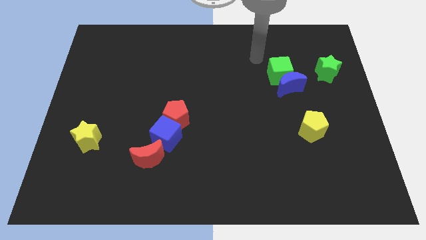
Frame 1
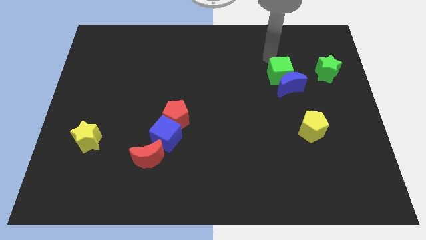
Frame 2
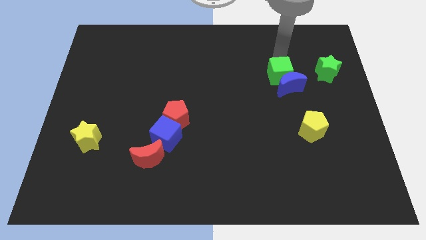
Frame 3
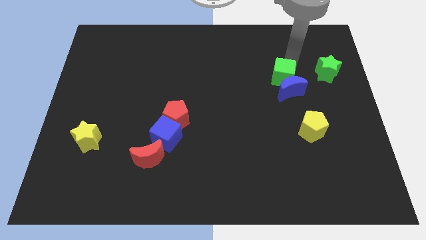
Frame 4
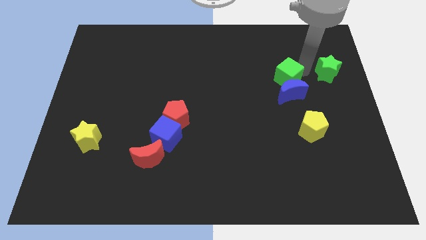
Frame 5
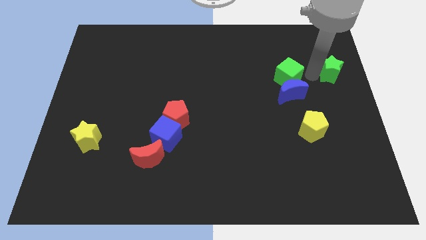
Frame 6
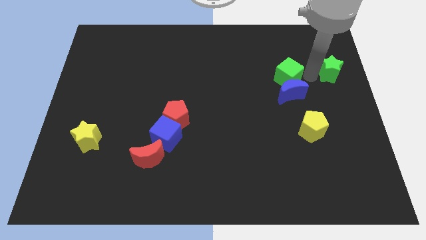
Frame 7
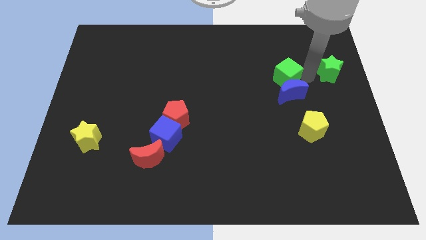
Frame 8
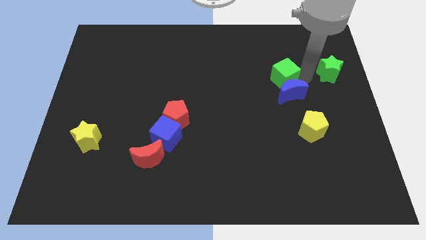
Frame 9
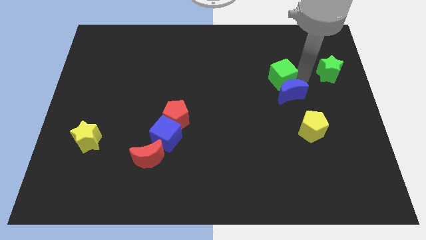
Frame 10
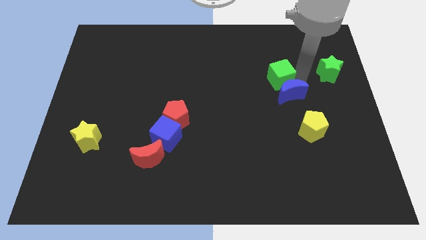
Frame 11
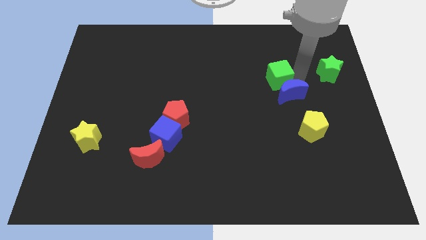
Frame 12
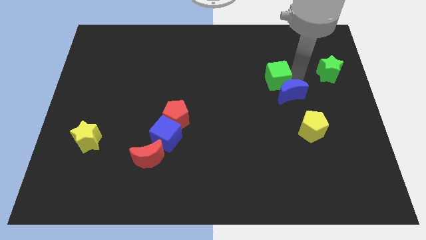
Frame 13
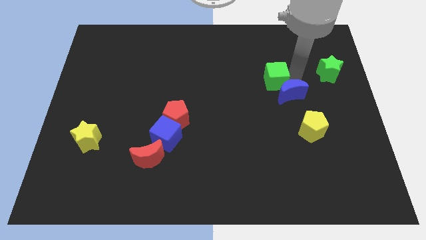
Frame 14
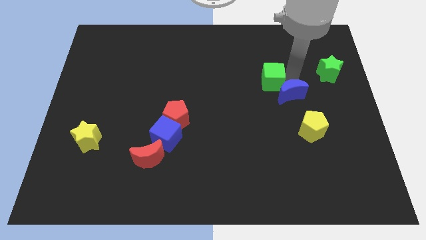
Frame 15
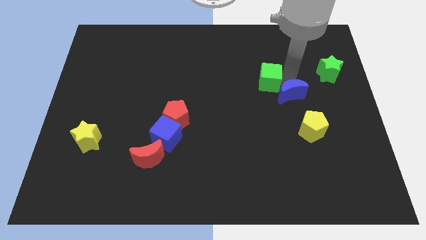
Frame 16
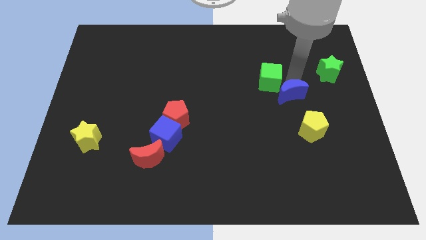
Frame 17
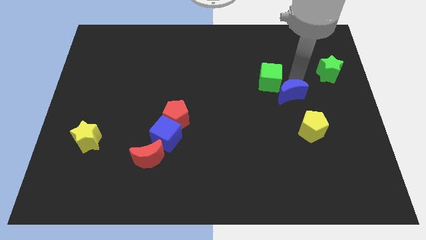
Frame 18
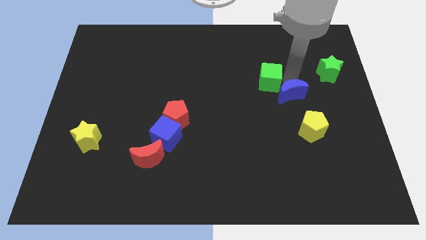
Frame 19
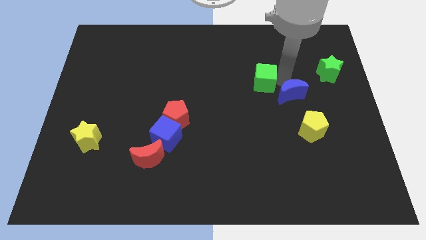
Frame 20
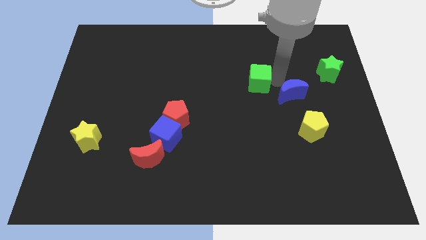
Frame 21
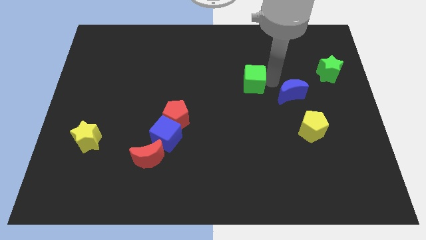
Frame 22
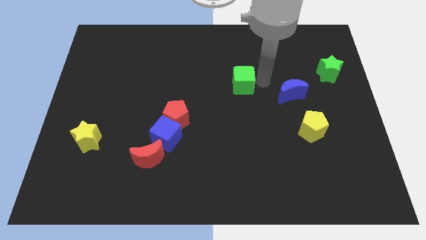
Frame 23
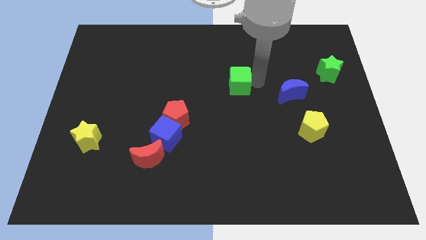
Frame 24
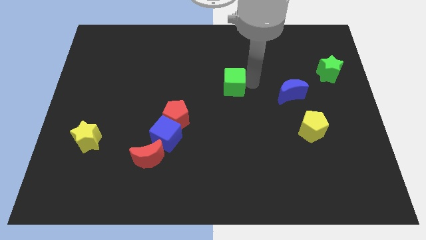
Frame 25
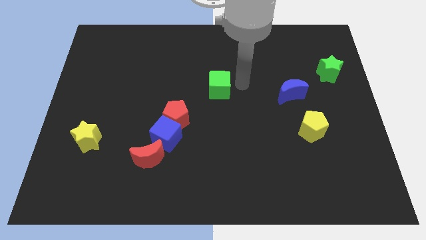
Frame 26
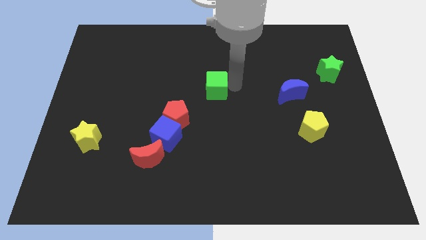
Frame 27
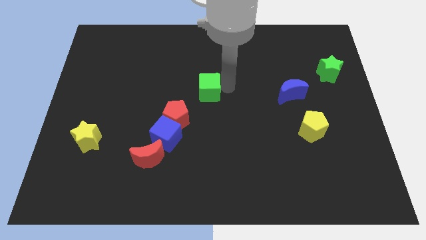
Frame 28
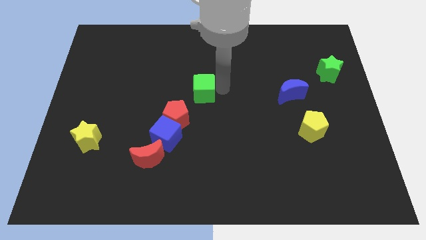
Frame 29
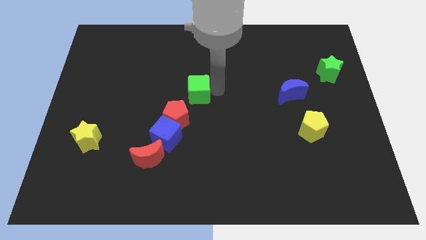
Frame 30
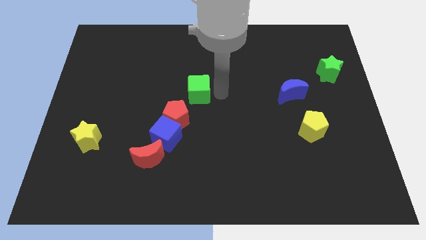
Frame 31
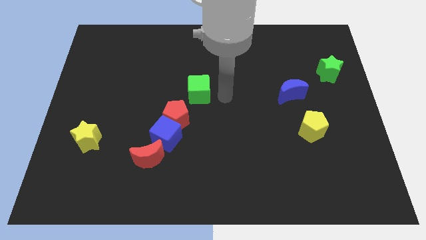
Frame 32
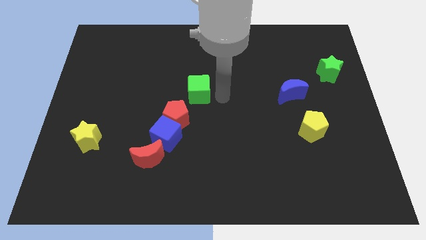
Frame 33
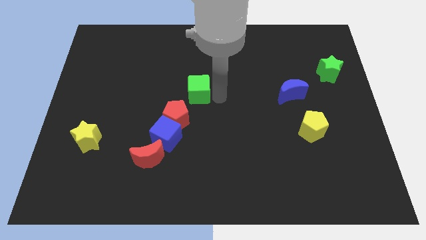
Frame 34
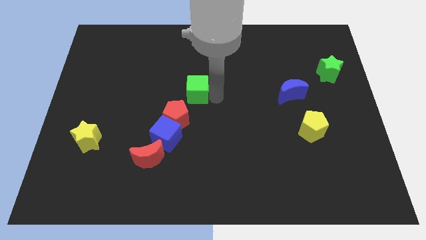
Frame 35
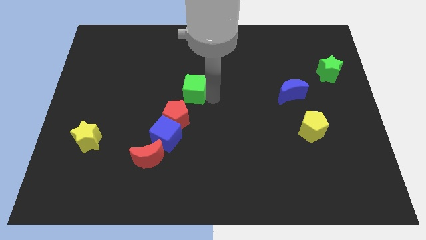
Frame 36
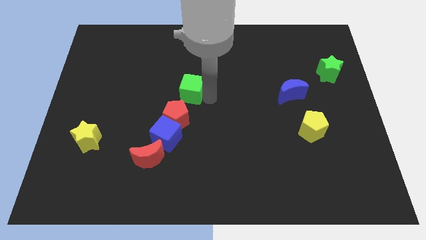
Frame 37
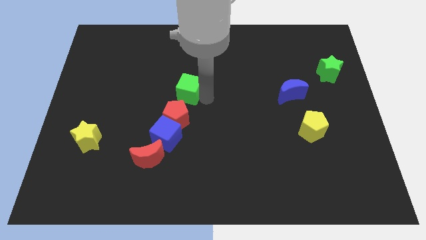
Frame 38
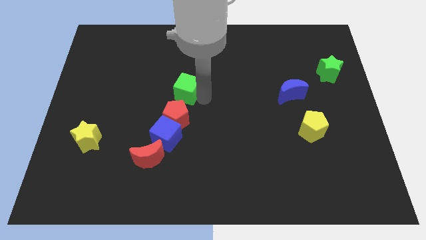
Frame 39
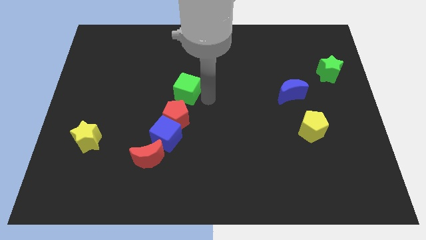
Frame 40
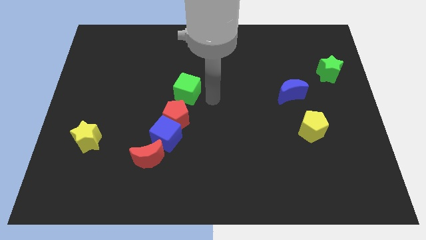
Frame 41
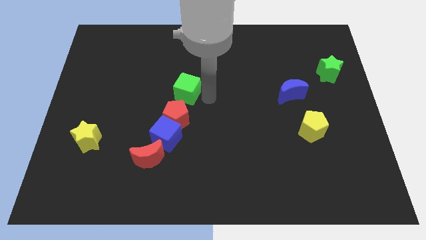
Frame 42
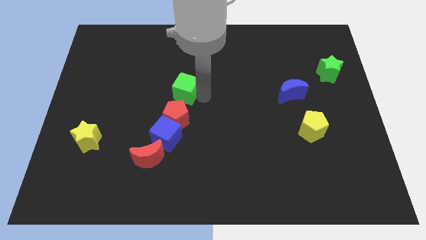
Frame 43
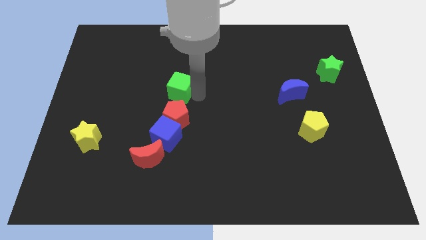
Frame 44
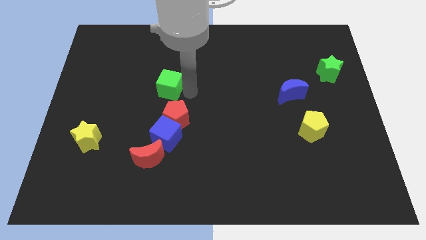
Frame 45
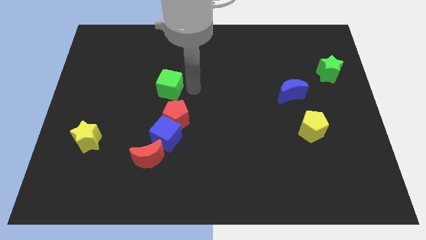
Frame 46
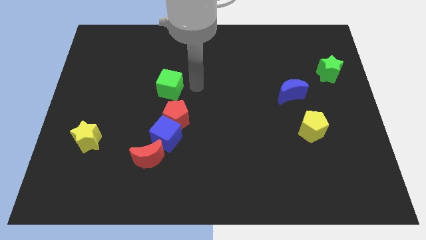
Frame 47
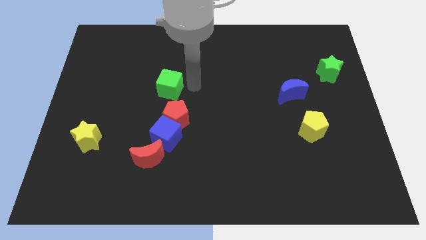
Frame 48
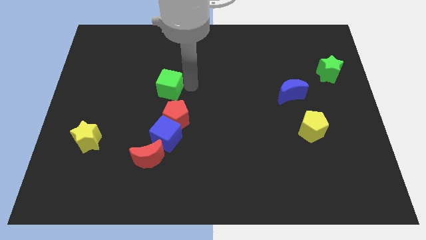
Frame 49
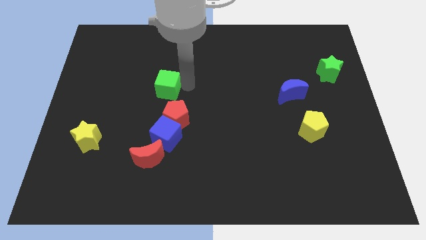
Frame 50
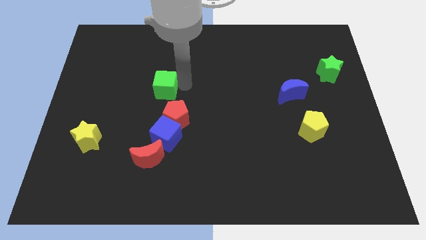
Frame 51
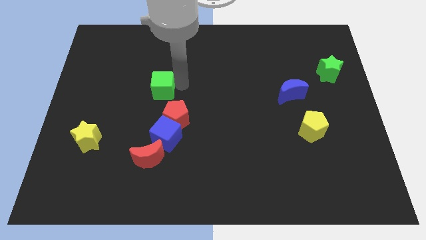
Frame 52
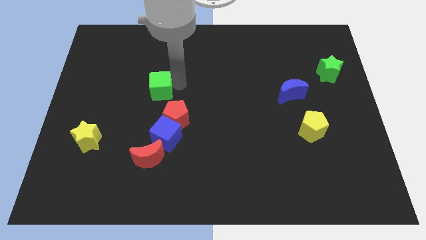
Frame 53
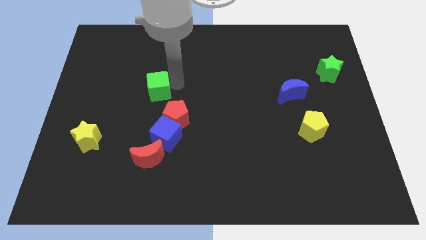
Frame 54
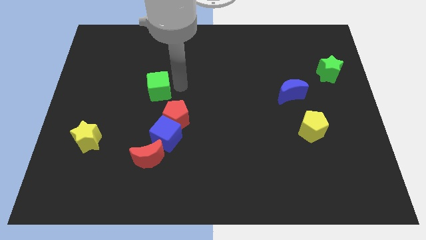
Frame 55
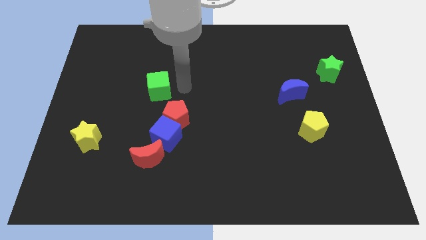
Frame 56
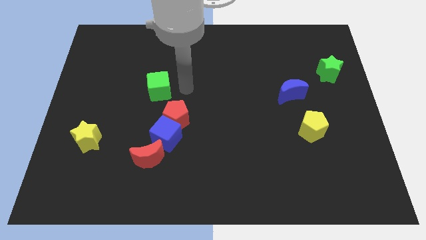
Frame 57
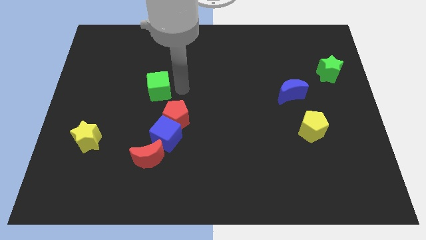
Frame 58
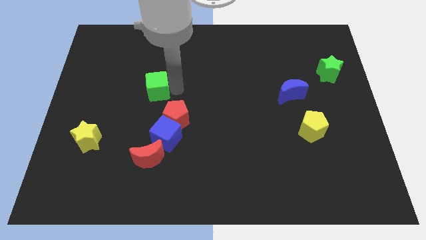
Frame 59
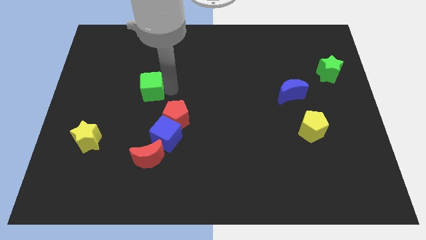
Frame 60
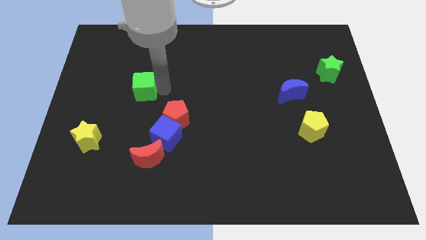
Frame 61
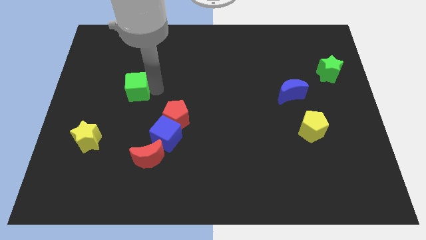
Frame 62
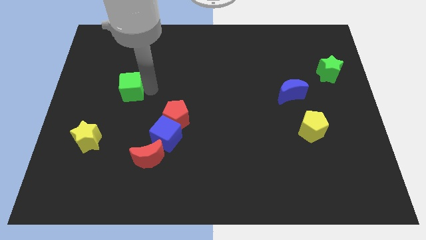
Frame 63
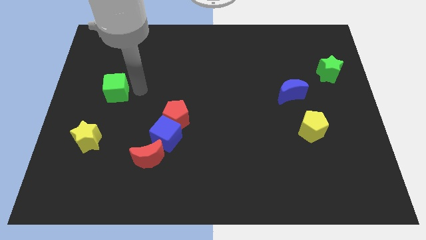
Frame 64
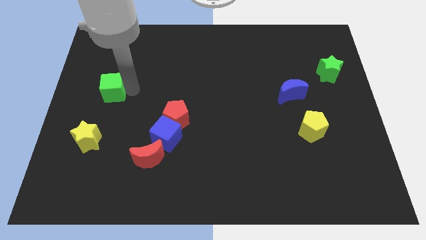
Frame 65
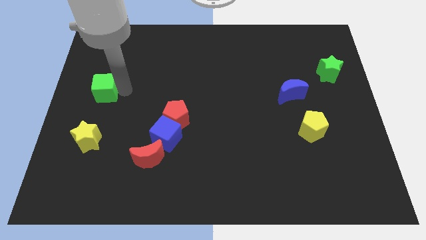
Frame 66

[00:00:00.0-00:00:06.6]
push the green cube to the left side of the board
